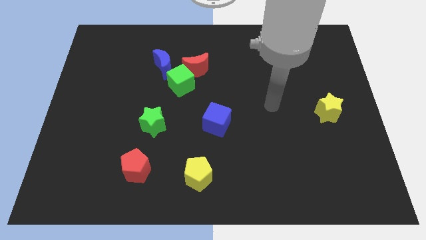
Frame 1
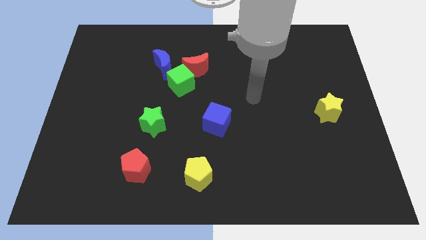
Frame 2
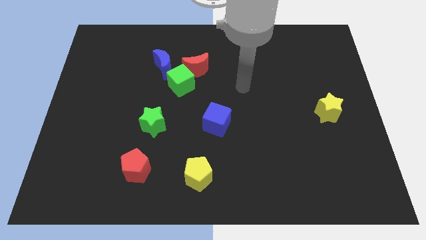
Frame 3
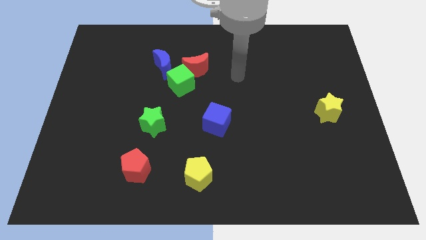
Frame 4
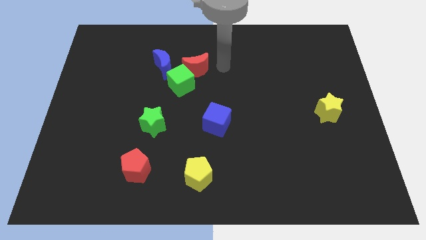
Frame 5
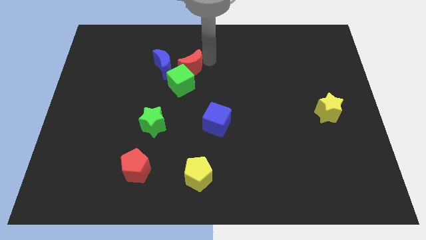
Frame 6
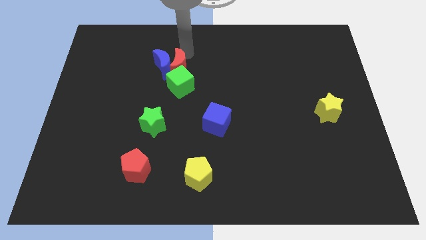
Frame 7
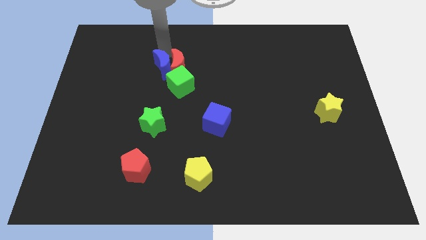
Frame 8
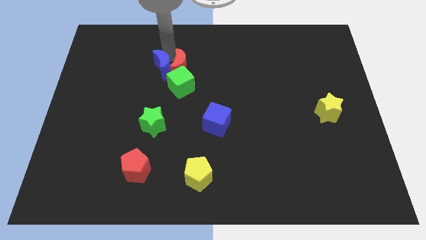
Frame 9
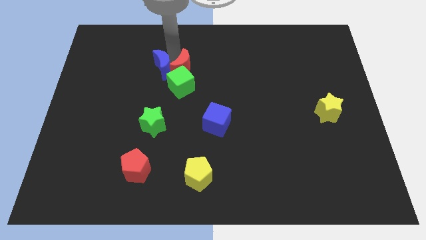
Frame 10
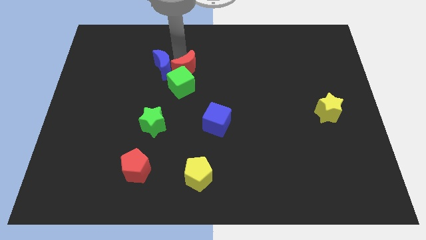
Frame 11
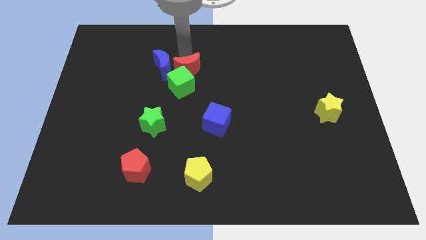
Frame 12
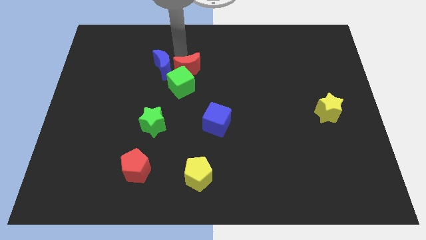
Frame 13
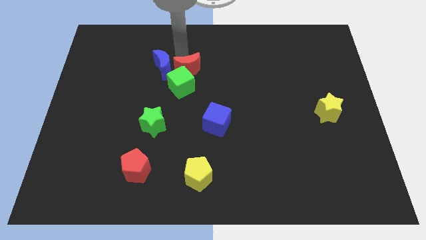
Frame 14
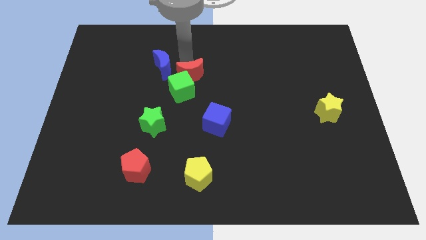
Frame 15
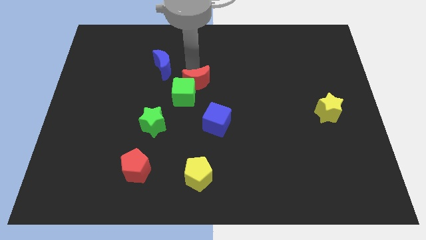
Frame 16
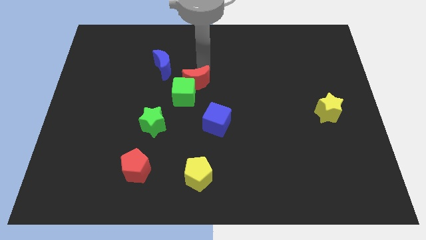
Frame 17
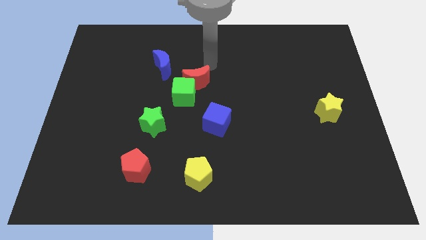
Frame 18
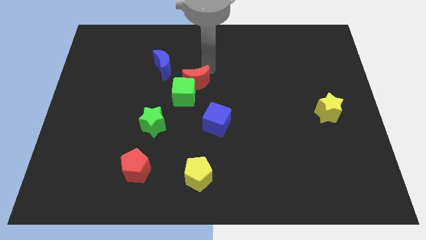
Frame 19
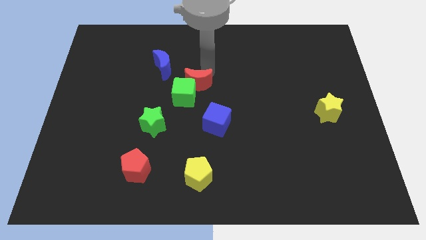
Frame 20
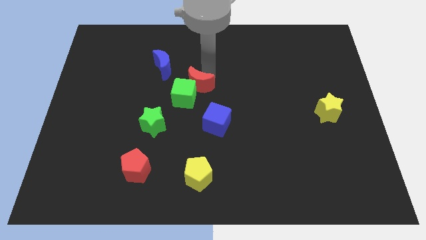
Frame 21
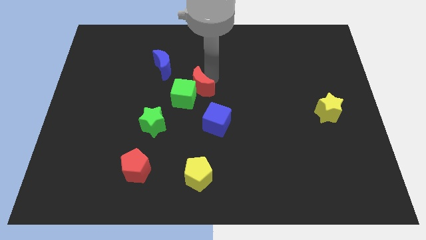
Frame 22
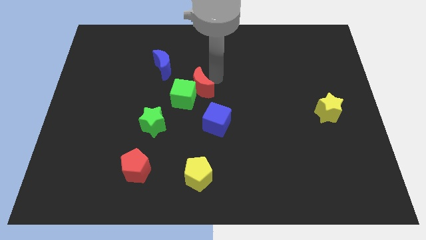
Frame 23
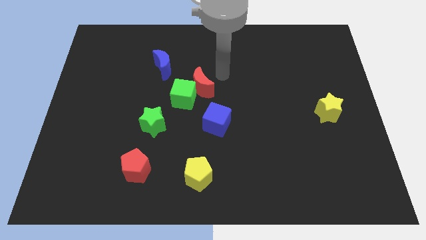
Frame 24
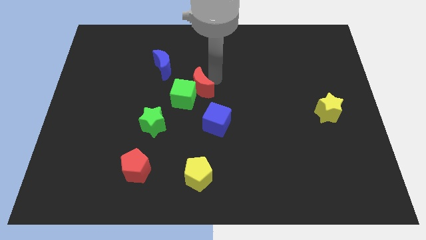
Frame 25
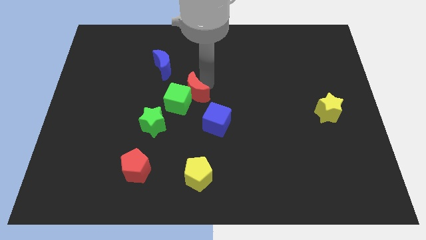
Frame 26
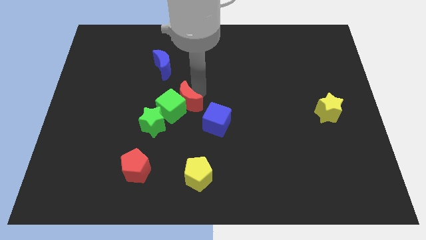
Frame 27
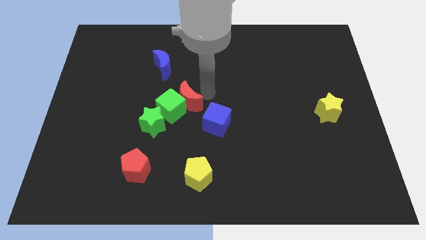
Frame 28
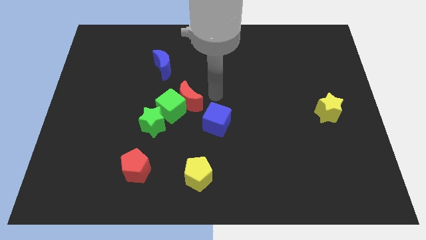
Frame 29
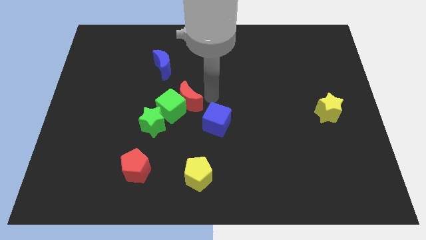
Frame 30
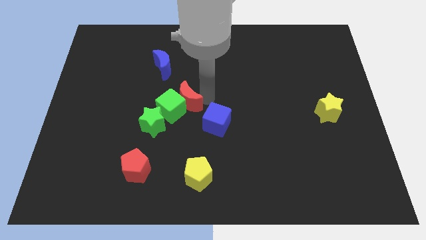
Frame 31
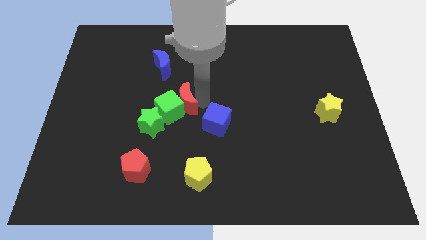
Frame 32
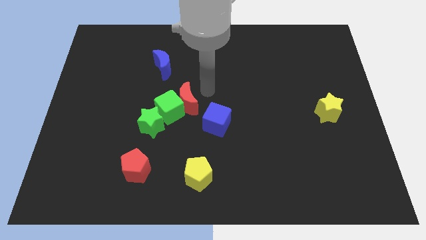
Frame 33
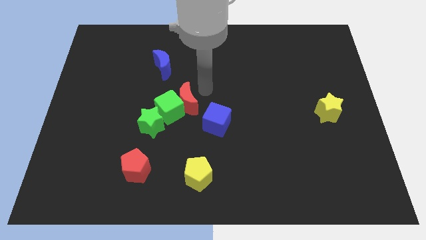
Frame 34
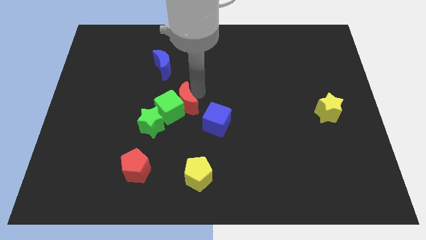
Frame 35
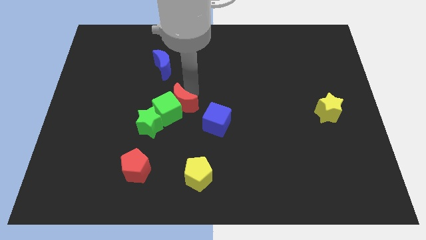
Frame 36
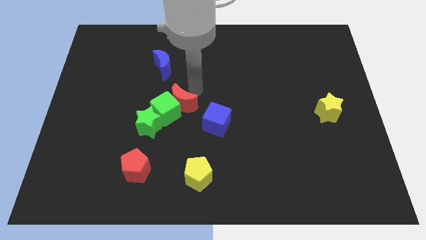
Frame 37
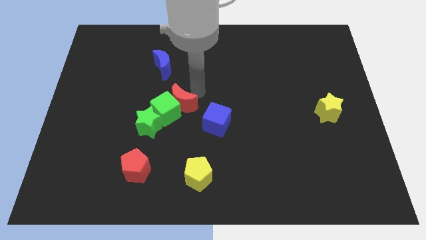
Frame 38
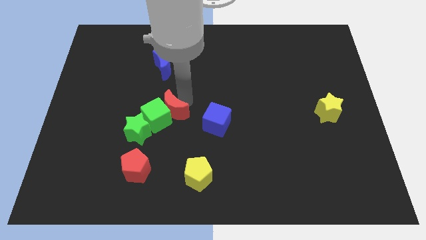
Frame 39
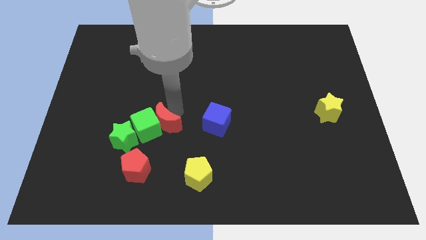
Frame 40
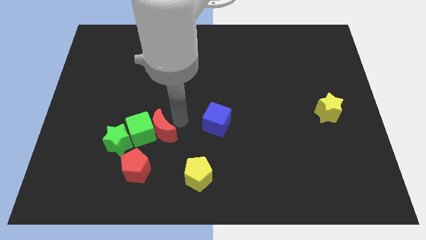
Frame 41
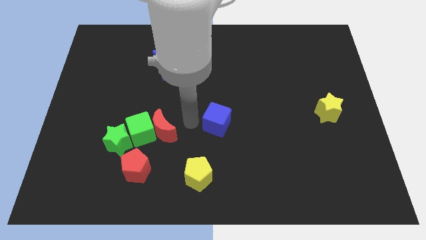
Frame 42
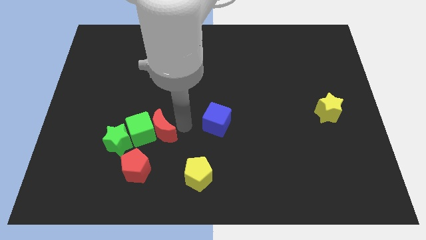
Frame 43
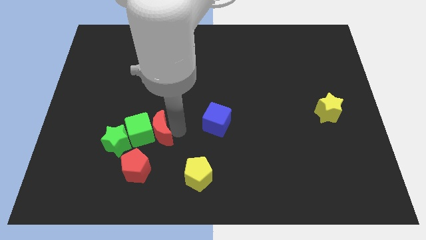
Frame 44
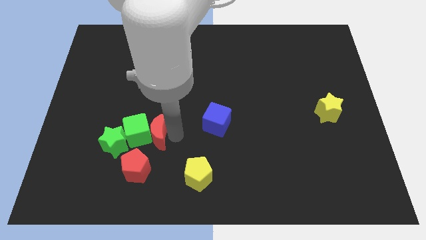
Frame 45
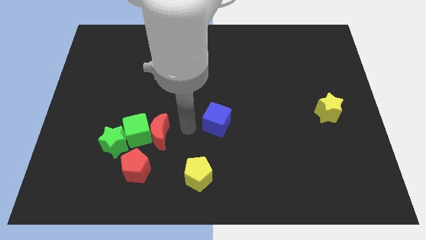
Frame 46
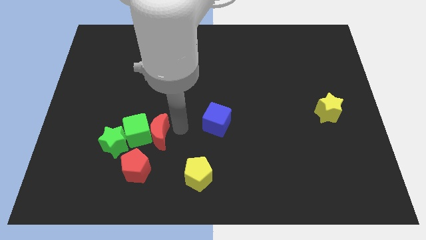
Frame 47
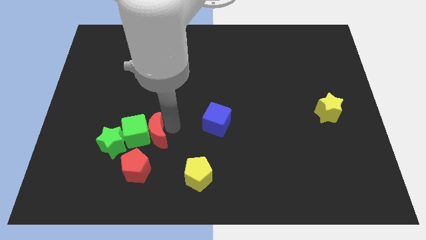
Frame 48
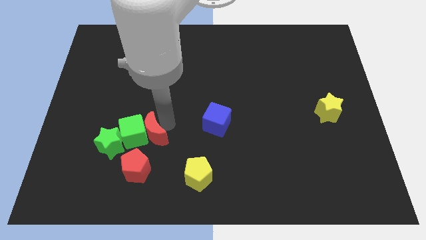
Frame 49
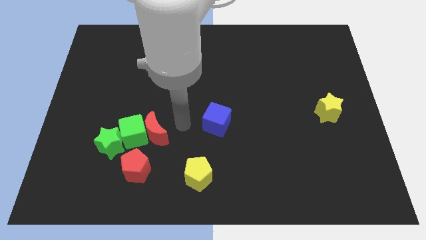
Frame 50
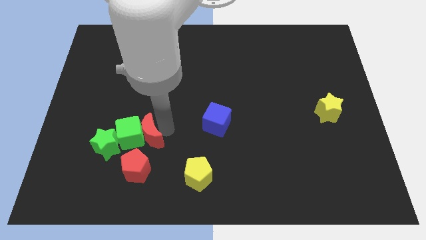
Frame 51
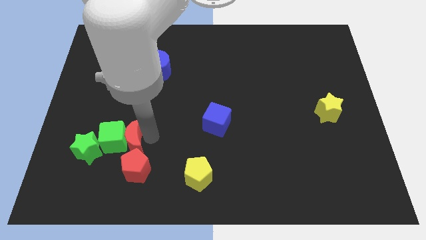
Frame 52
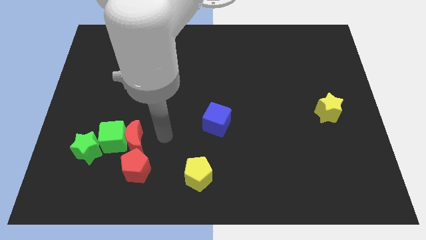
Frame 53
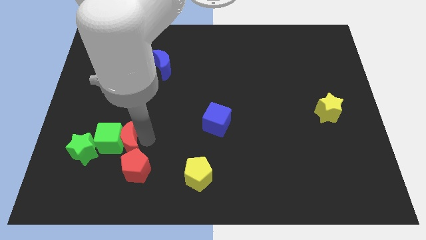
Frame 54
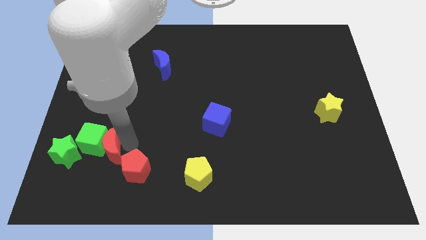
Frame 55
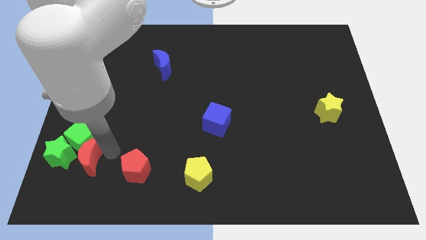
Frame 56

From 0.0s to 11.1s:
slide the red moon next to the green star

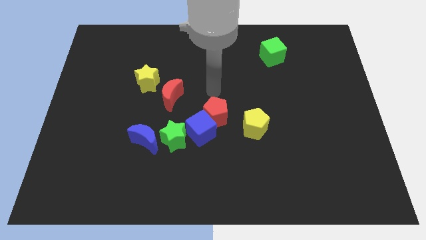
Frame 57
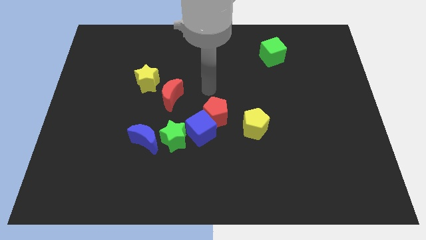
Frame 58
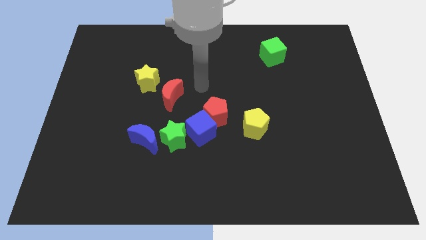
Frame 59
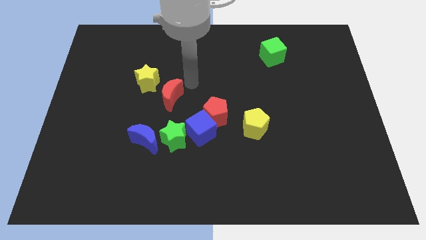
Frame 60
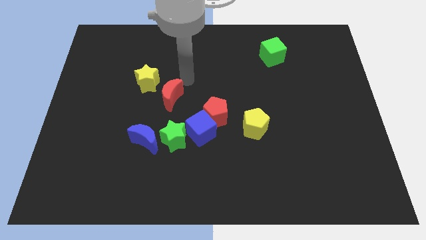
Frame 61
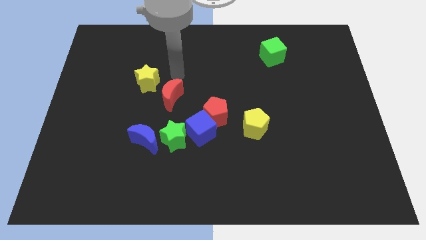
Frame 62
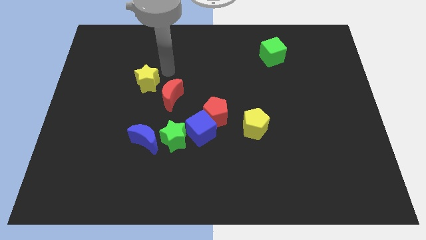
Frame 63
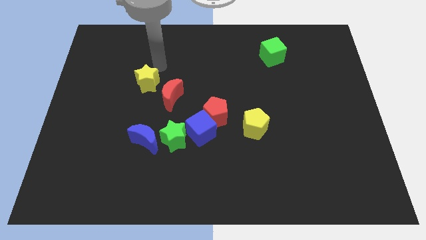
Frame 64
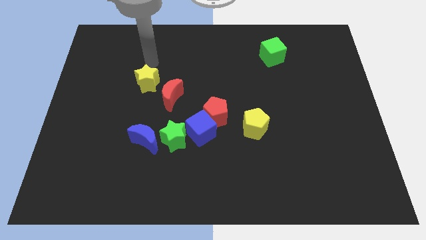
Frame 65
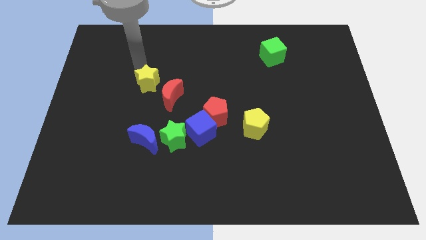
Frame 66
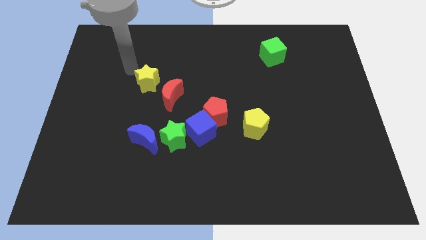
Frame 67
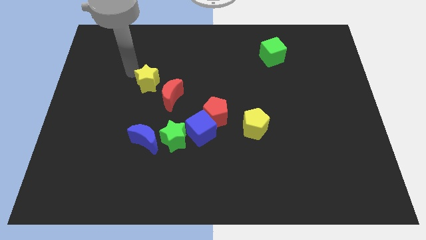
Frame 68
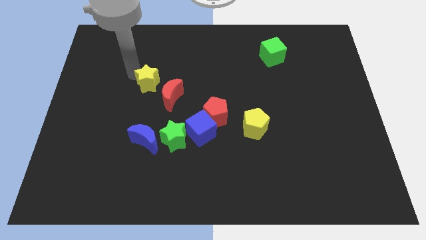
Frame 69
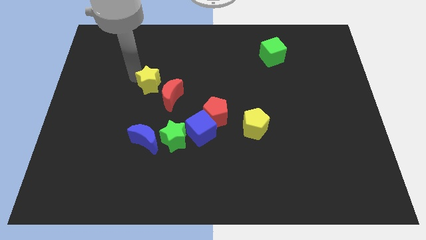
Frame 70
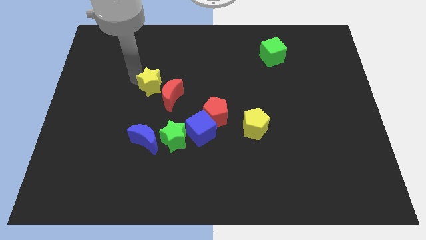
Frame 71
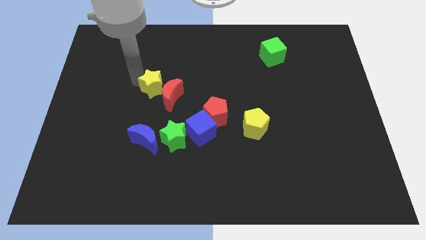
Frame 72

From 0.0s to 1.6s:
put the yellow star to the red moon

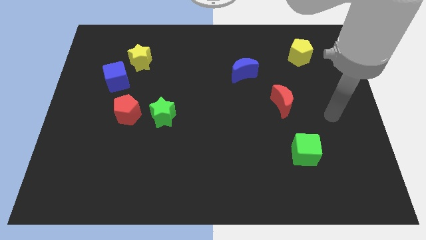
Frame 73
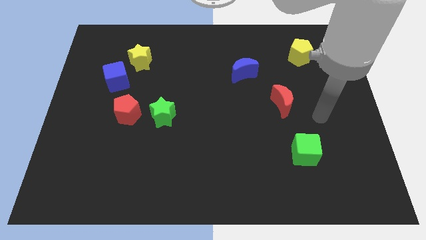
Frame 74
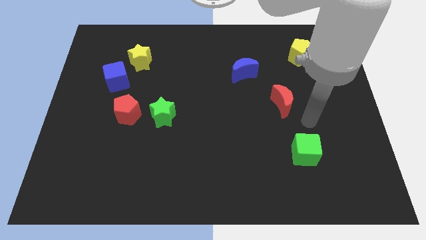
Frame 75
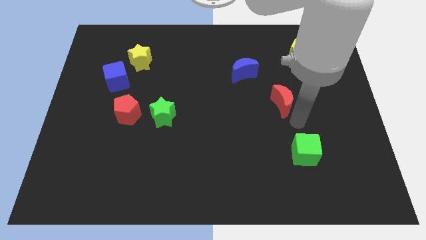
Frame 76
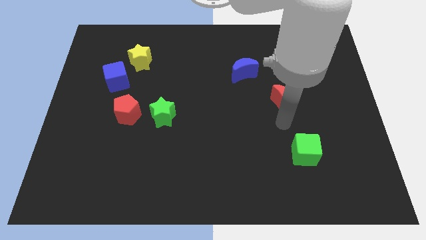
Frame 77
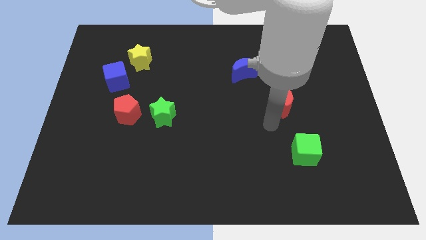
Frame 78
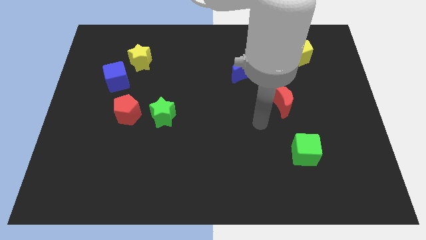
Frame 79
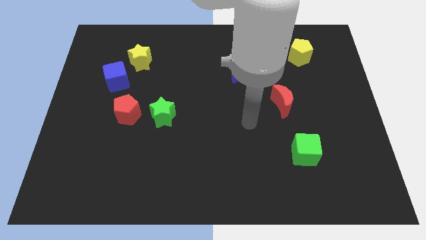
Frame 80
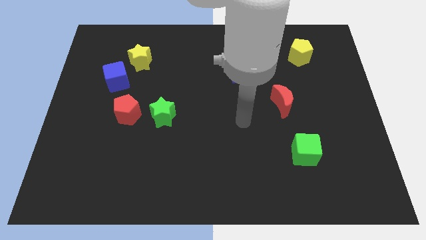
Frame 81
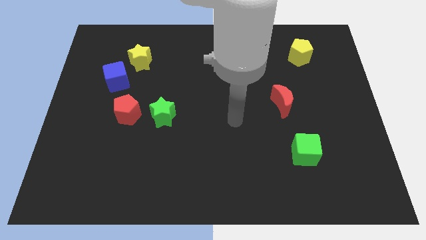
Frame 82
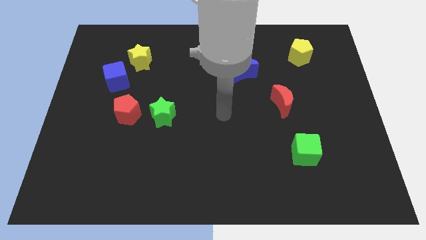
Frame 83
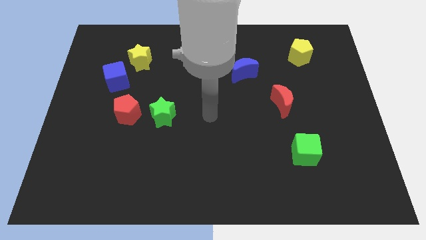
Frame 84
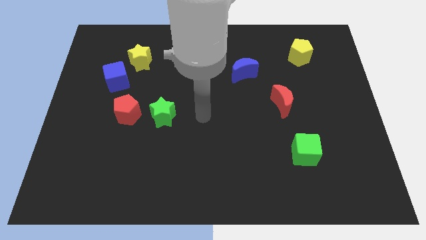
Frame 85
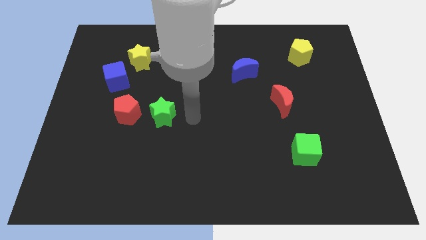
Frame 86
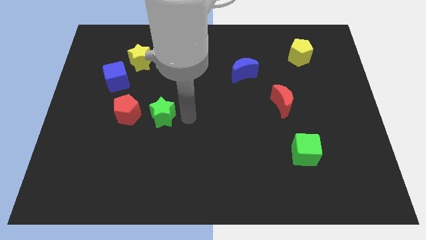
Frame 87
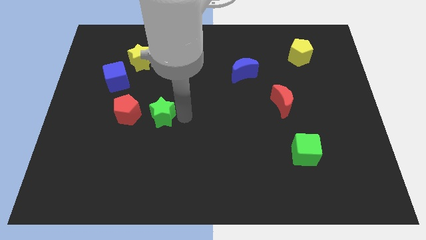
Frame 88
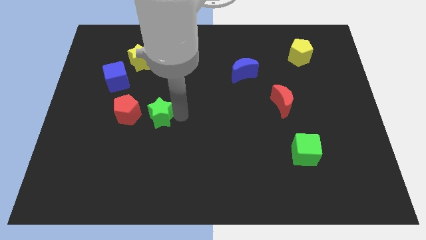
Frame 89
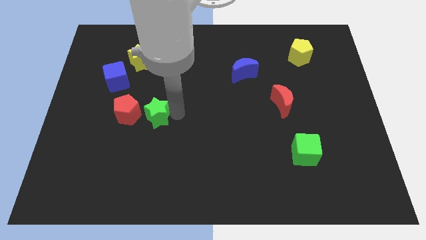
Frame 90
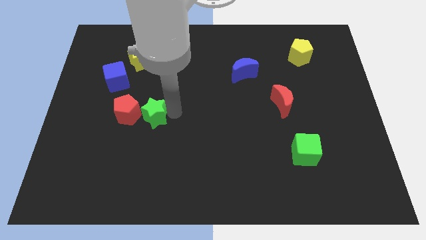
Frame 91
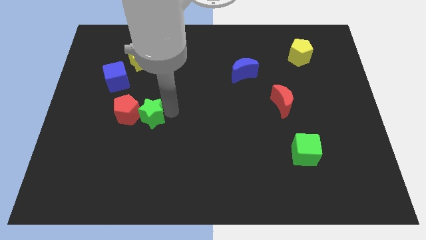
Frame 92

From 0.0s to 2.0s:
slide the green star close to the red pentagon
